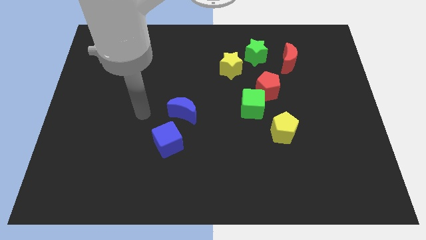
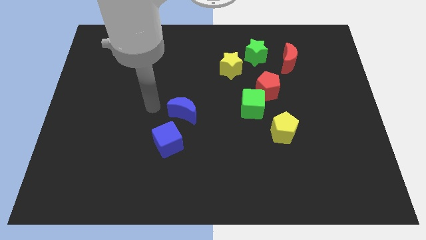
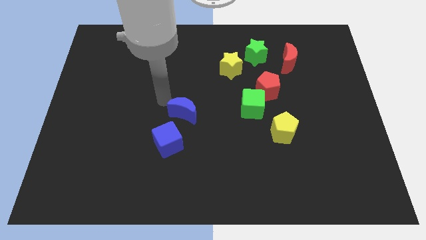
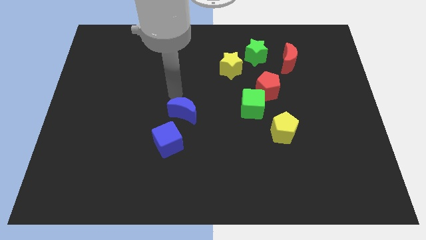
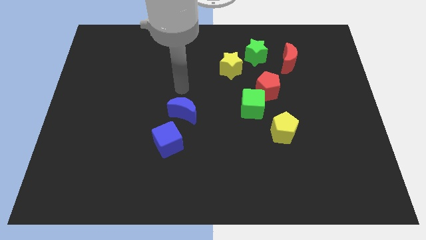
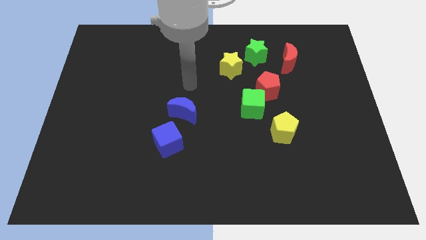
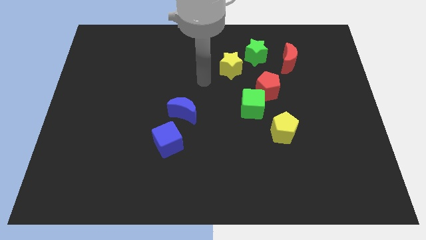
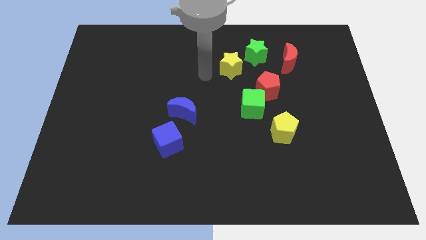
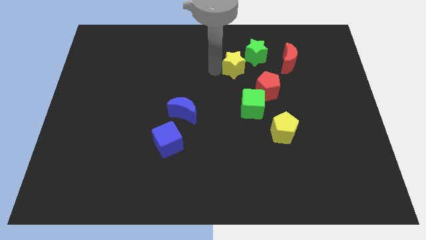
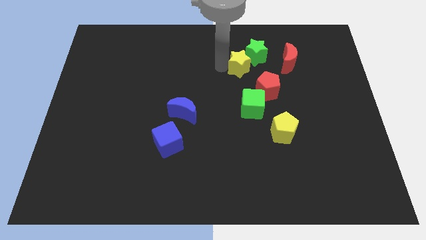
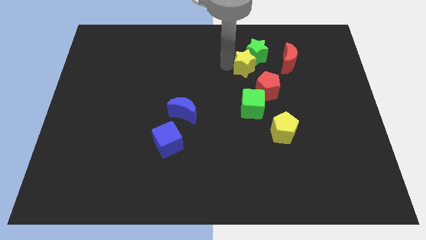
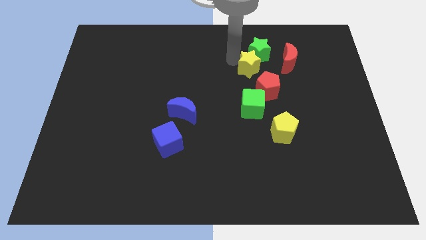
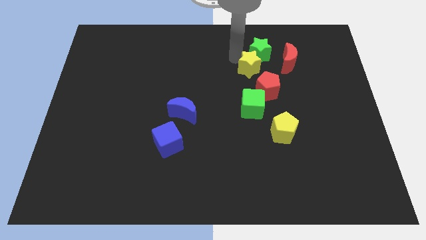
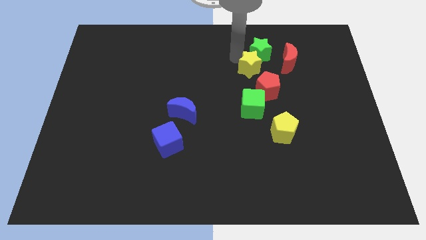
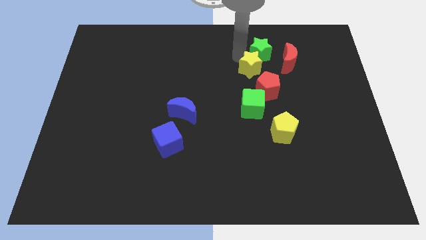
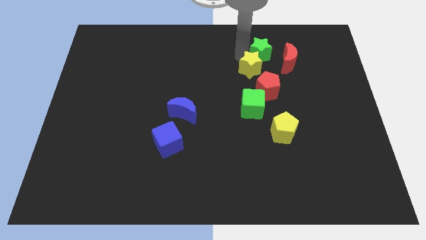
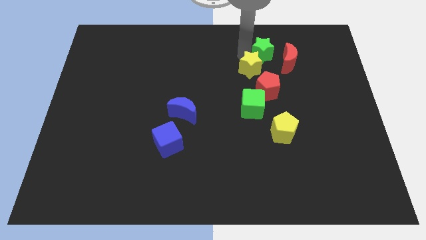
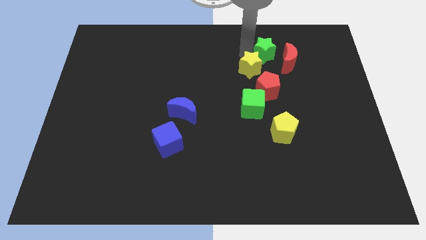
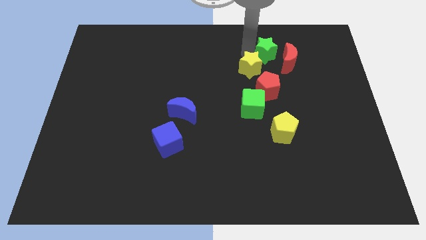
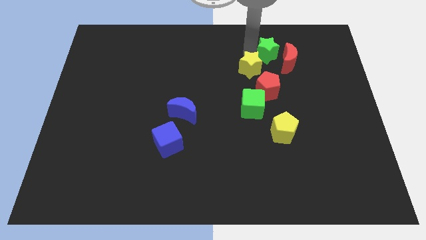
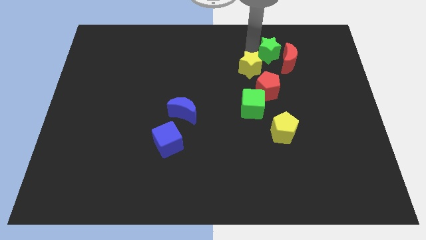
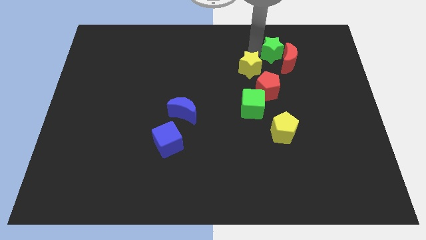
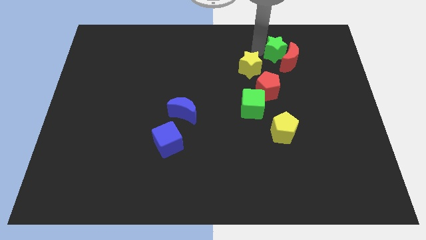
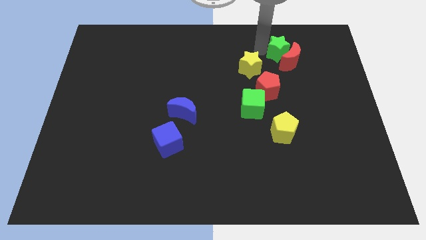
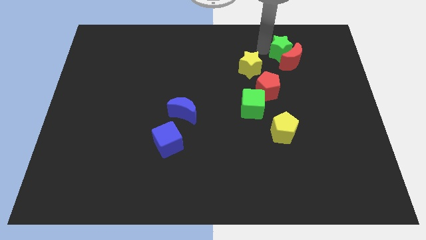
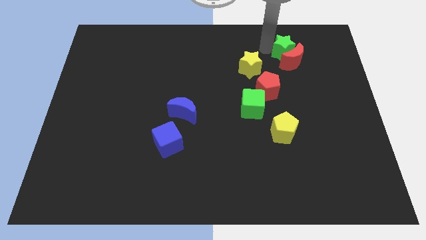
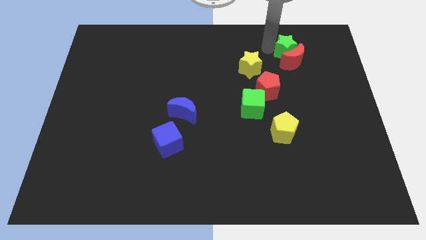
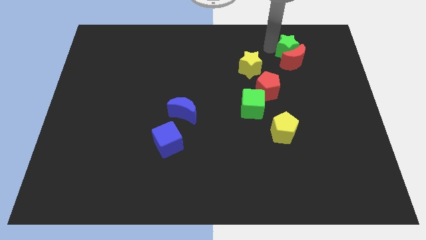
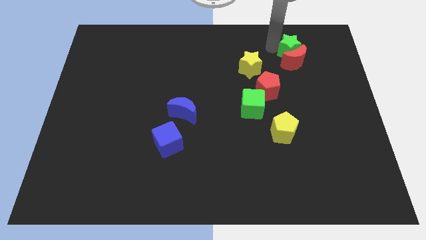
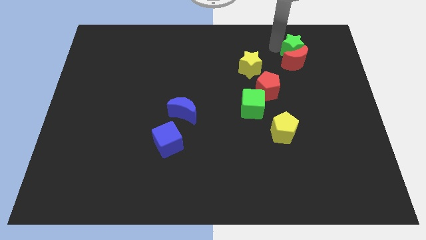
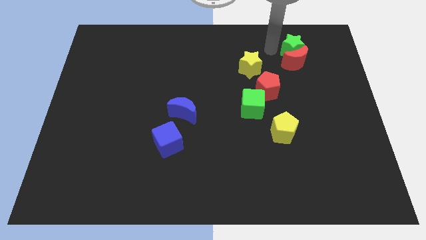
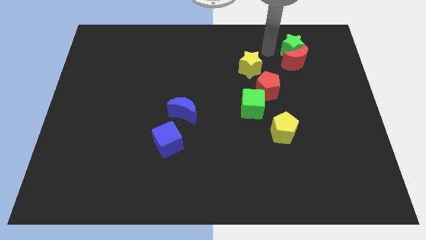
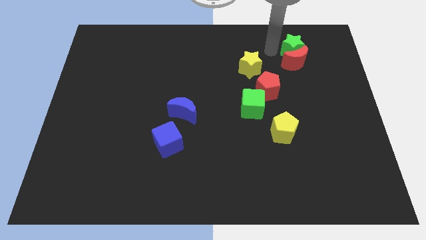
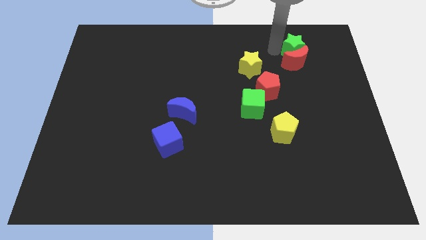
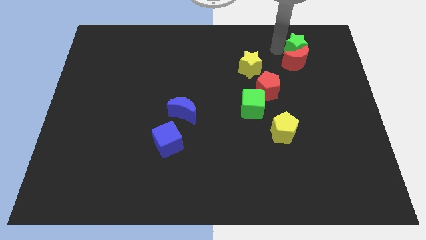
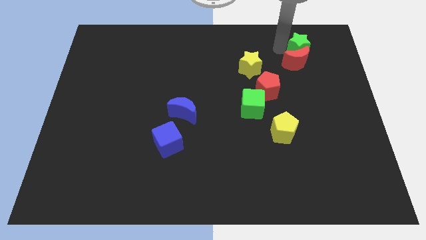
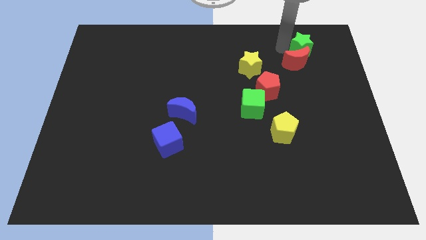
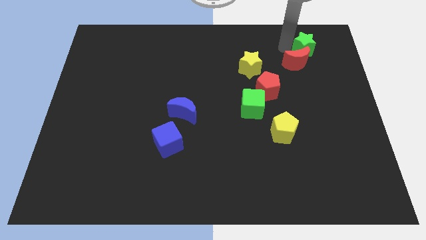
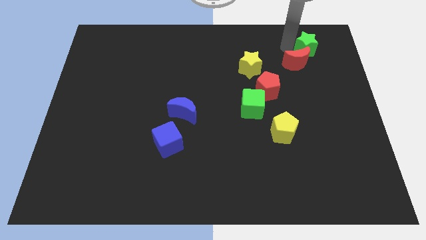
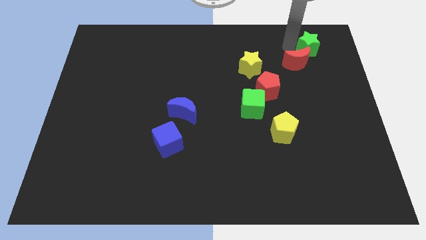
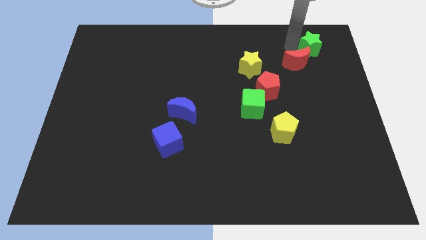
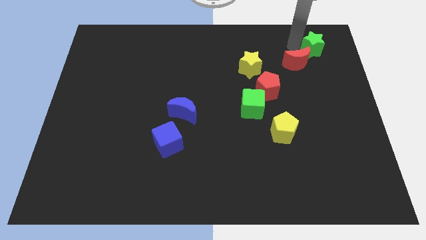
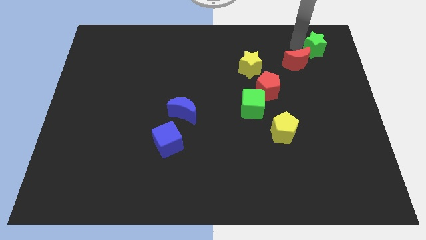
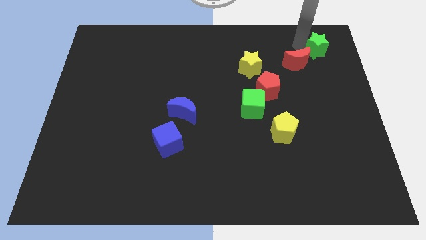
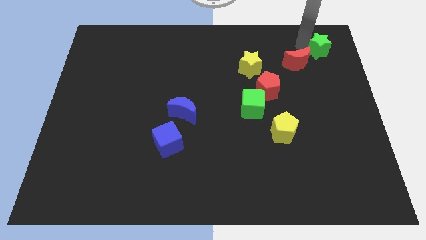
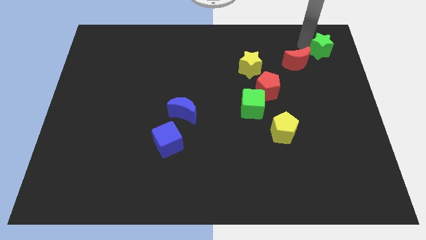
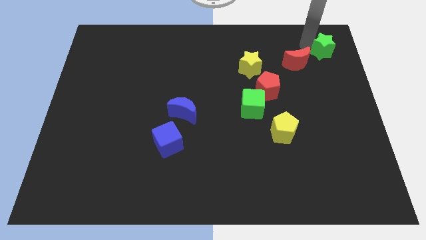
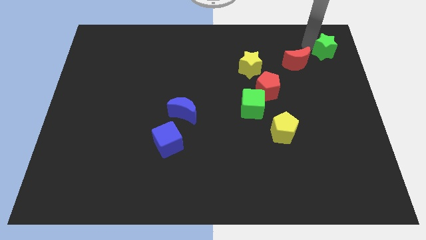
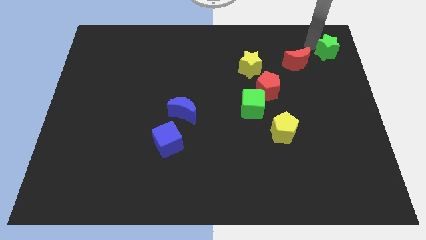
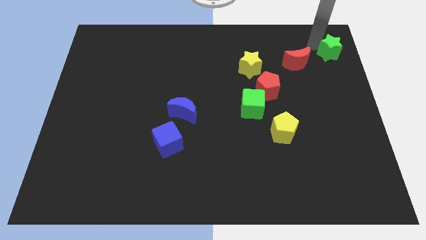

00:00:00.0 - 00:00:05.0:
slide the green star to the top right

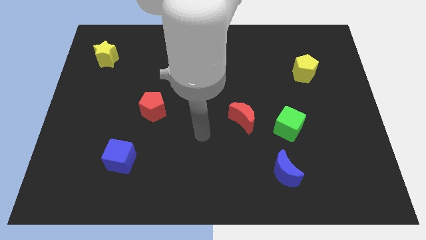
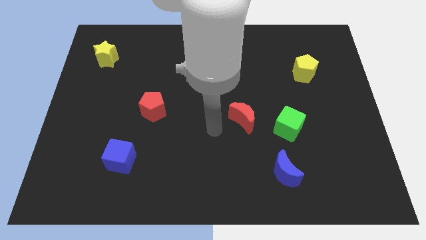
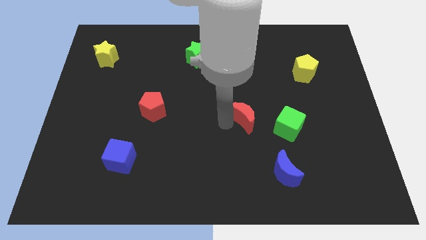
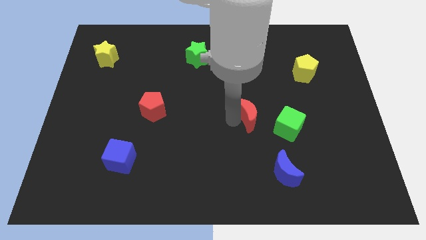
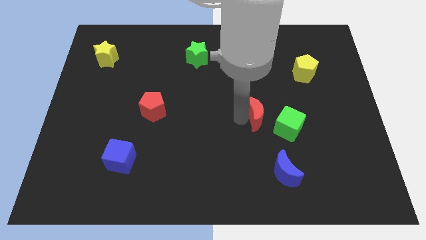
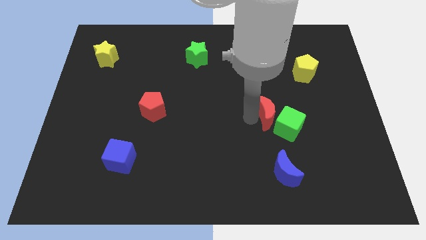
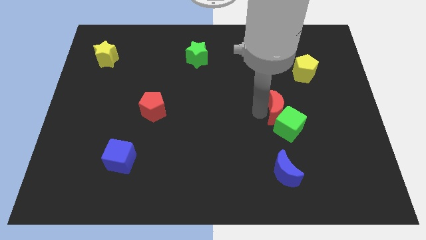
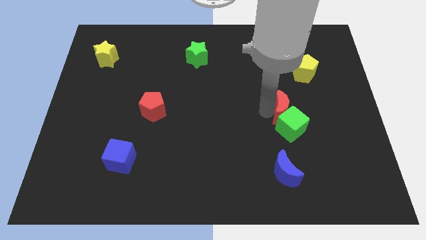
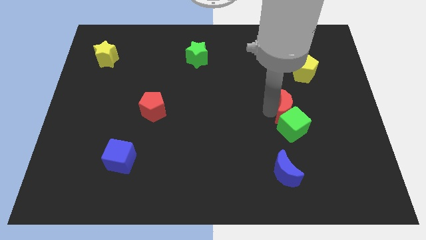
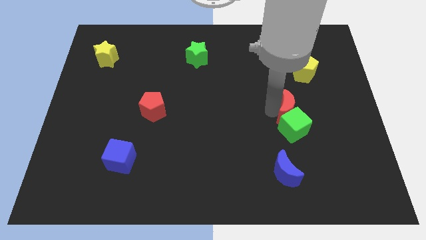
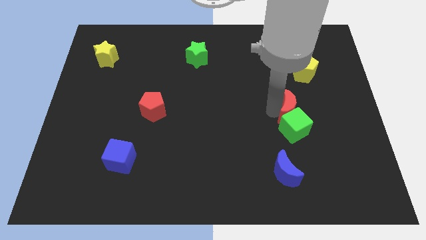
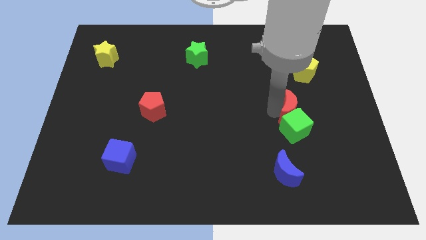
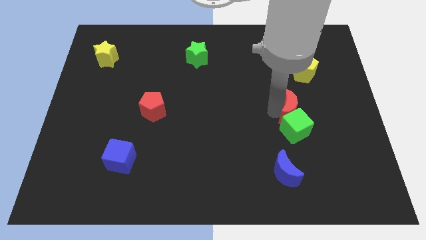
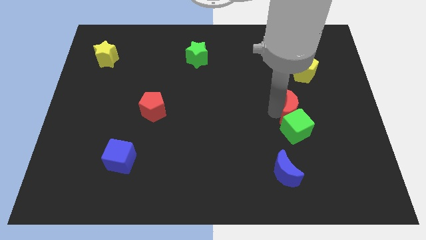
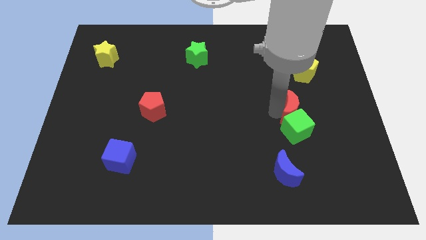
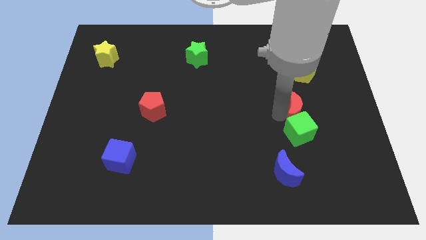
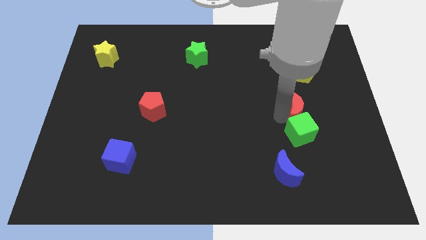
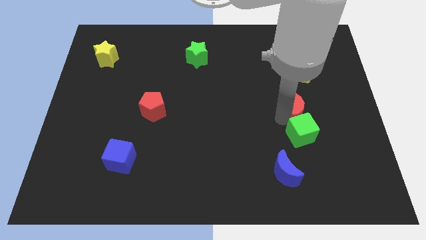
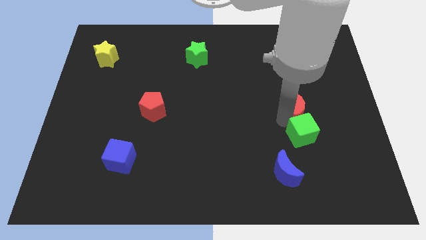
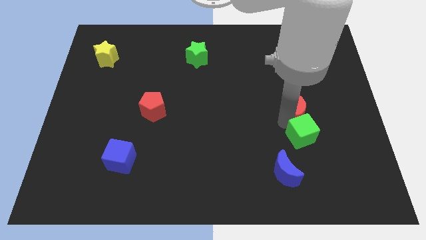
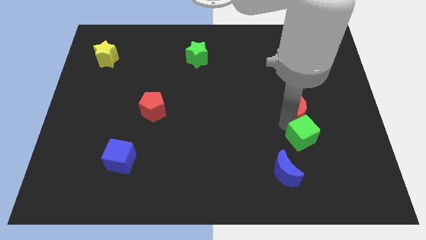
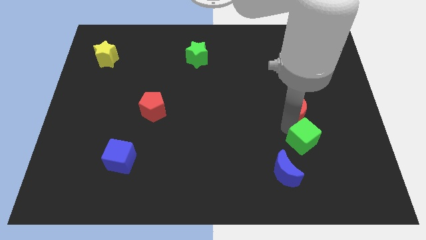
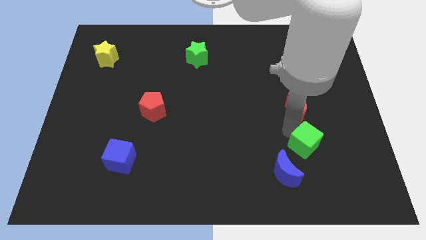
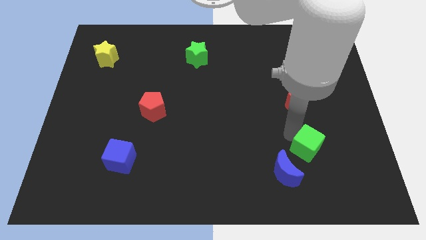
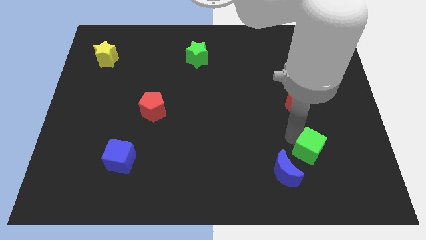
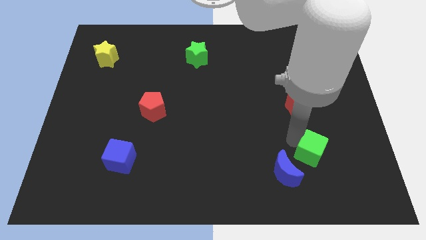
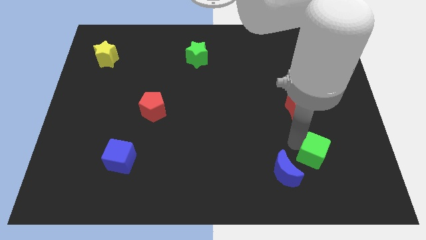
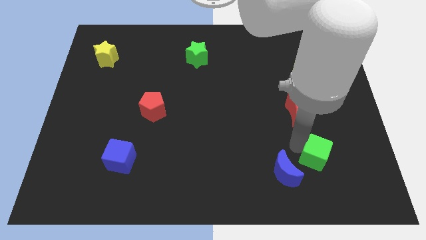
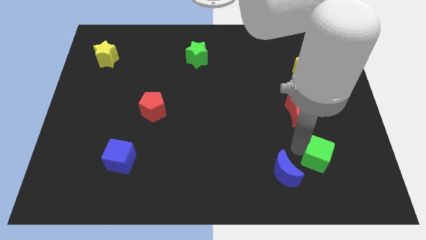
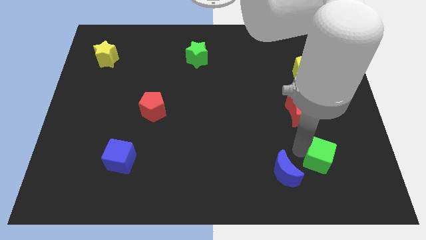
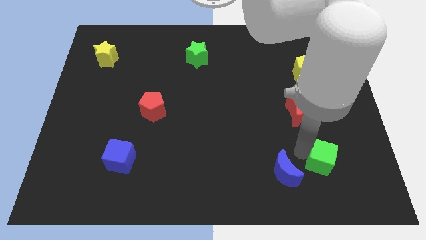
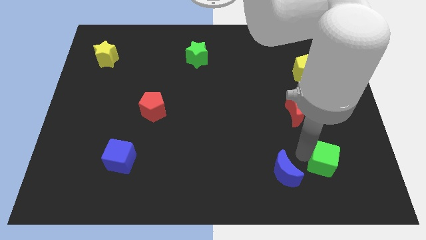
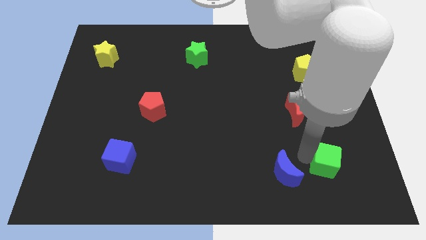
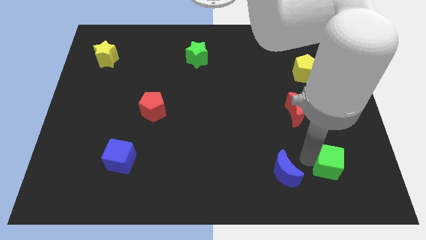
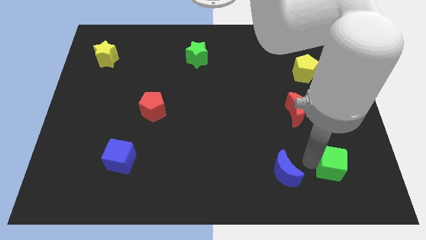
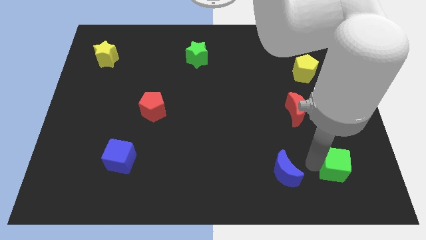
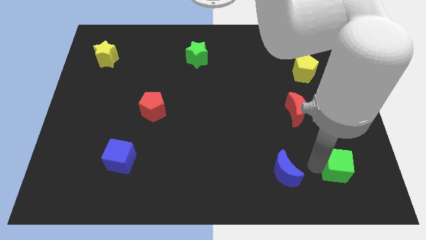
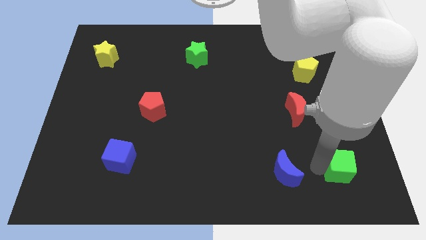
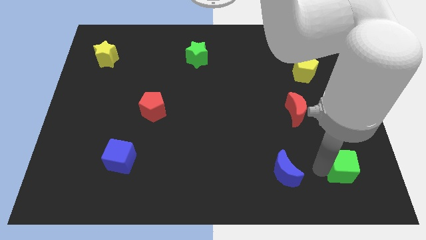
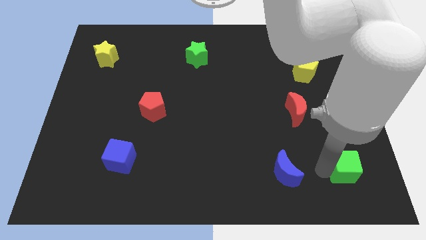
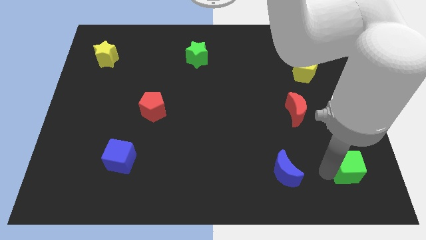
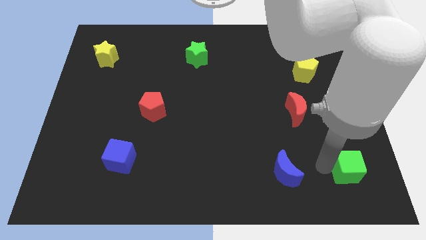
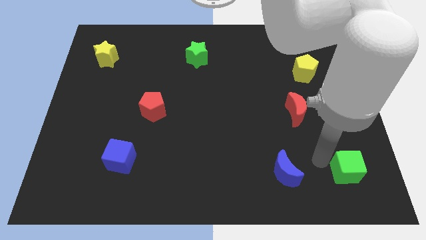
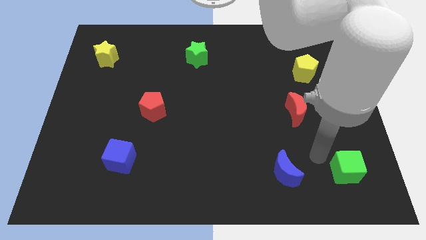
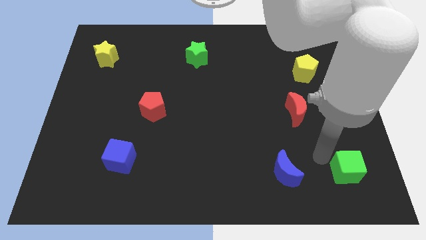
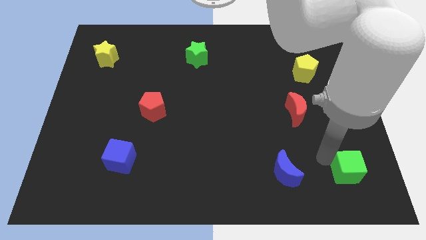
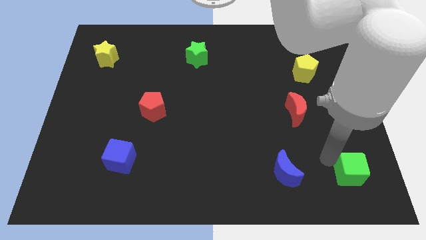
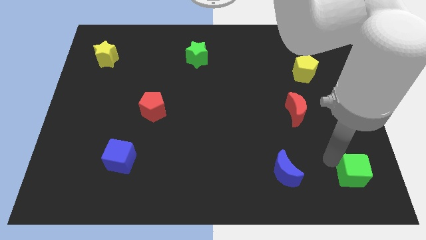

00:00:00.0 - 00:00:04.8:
slide the green cube to the lower right corner
